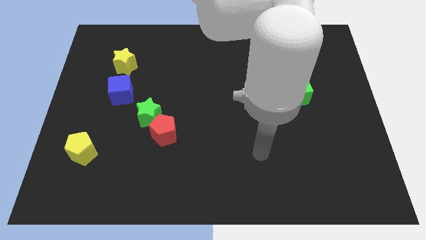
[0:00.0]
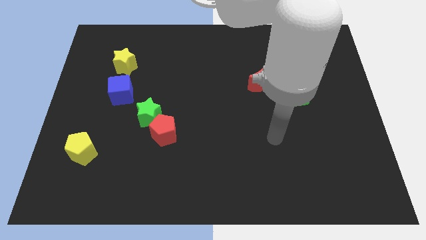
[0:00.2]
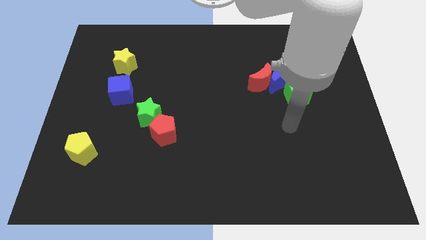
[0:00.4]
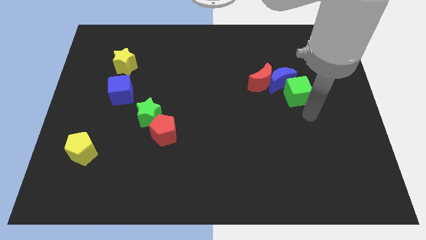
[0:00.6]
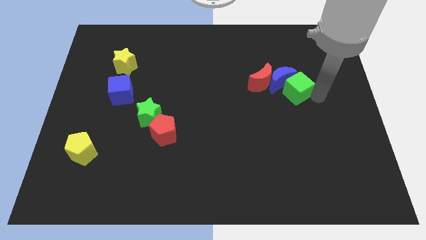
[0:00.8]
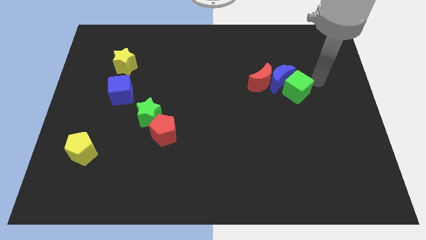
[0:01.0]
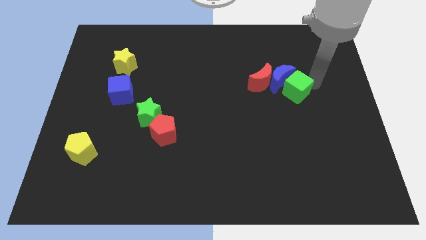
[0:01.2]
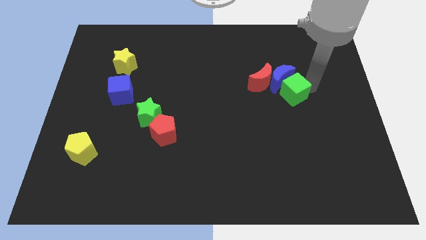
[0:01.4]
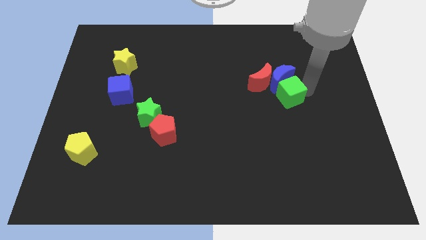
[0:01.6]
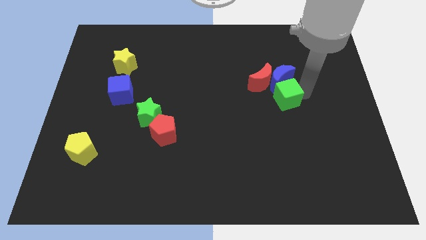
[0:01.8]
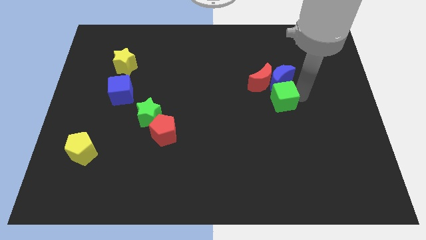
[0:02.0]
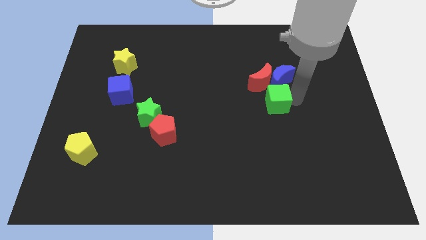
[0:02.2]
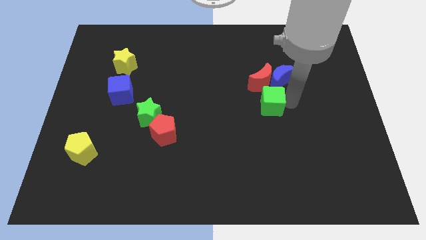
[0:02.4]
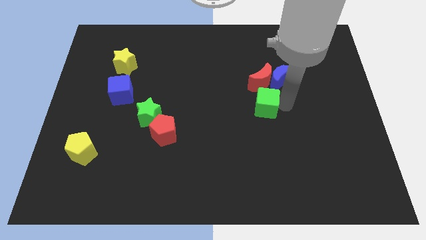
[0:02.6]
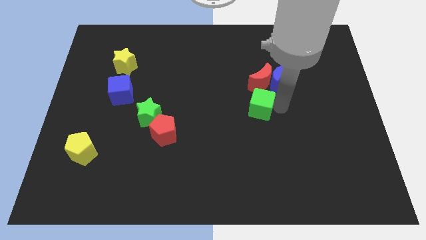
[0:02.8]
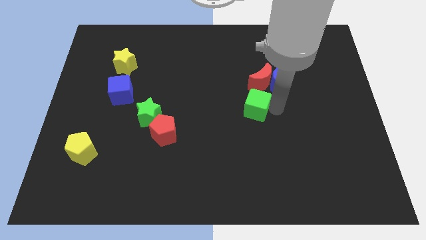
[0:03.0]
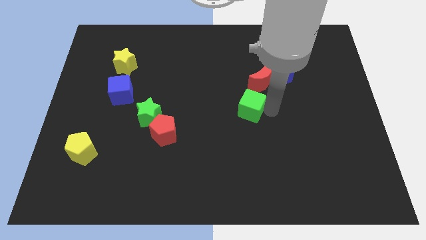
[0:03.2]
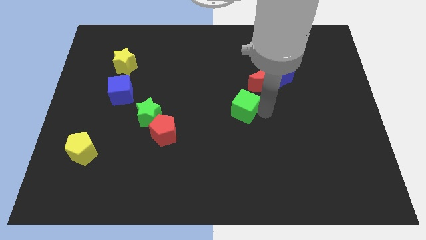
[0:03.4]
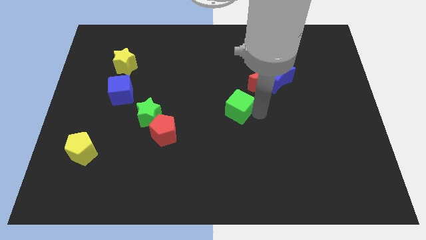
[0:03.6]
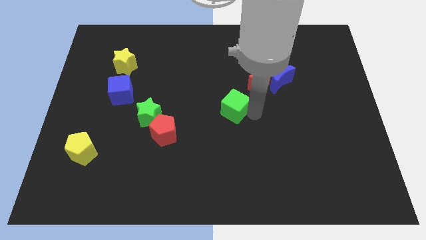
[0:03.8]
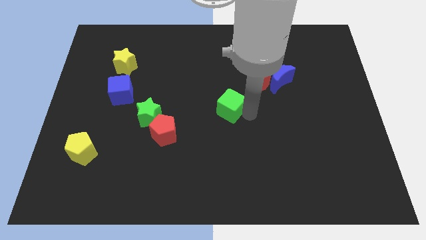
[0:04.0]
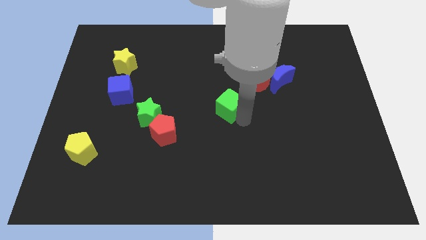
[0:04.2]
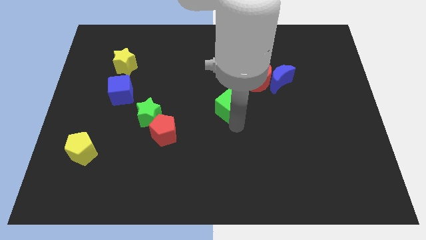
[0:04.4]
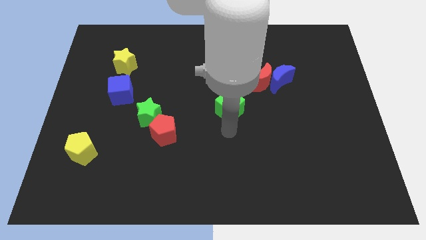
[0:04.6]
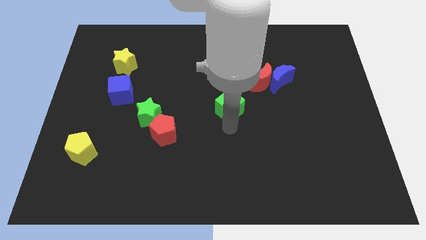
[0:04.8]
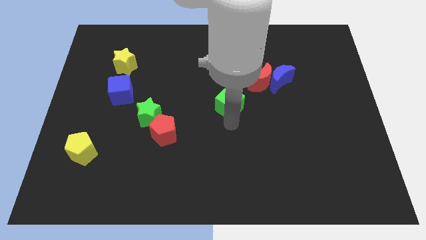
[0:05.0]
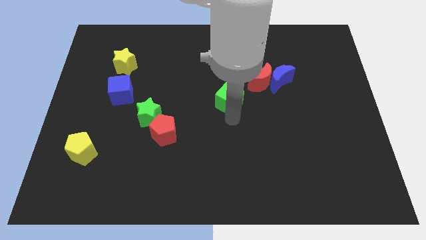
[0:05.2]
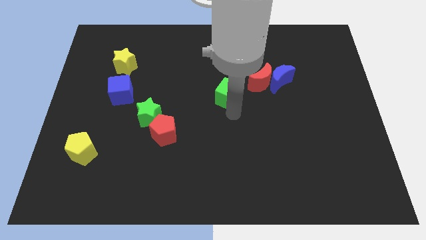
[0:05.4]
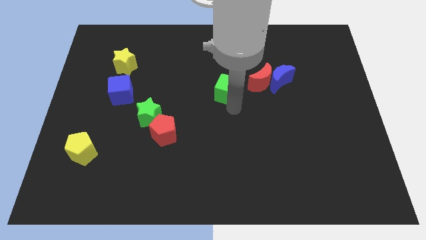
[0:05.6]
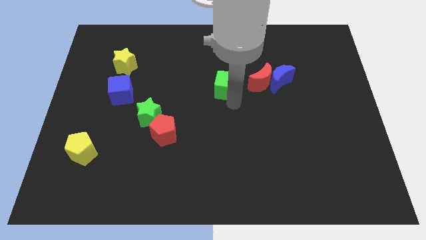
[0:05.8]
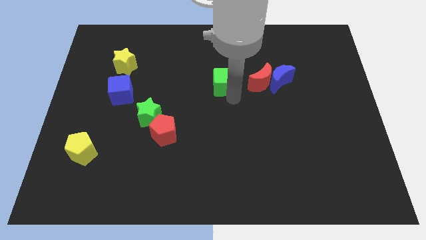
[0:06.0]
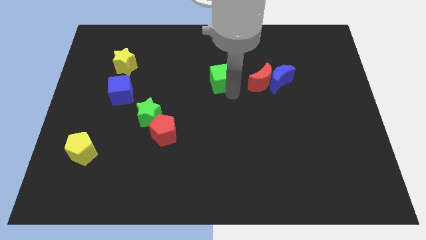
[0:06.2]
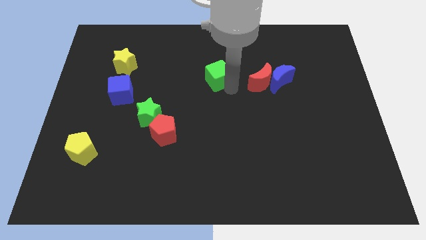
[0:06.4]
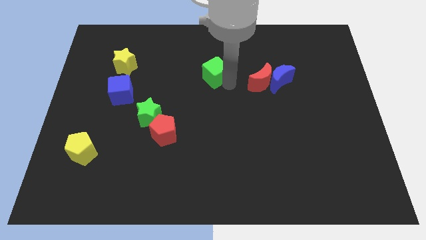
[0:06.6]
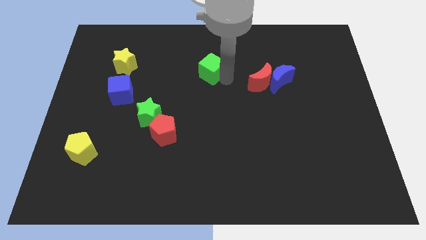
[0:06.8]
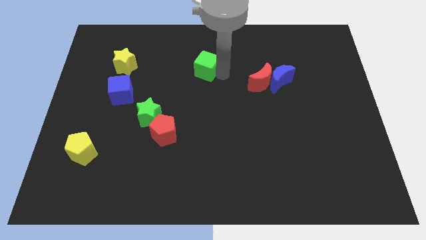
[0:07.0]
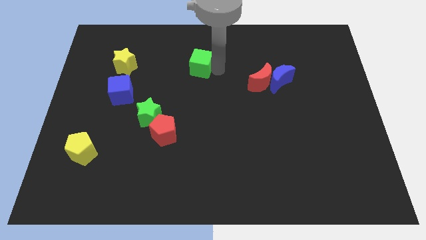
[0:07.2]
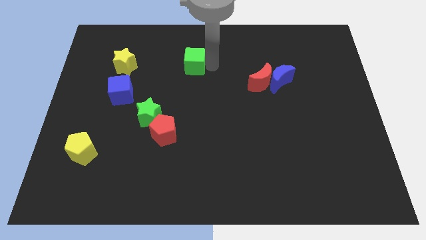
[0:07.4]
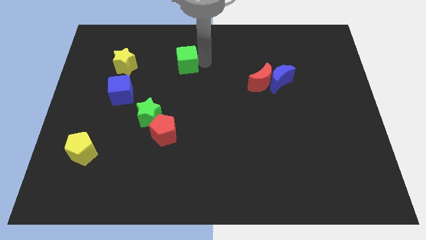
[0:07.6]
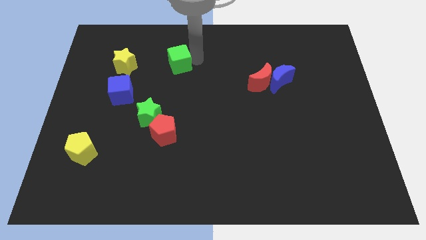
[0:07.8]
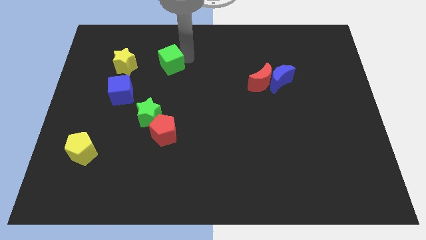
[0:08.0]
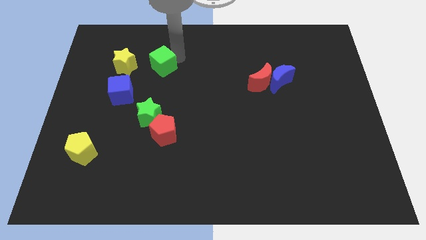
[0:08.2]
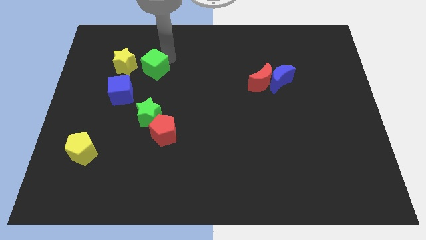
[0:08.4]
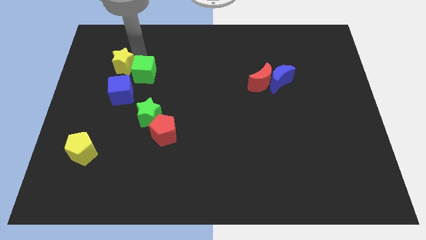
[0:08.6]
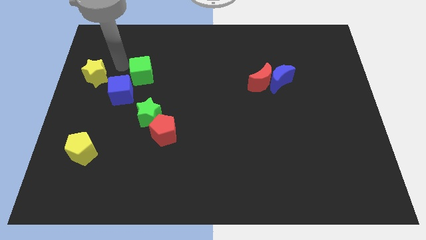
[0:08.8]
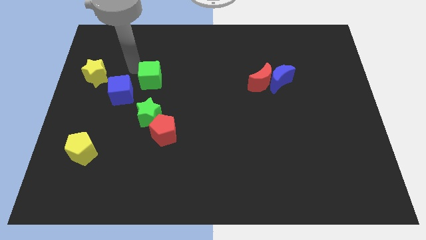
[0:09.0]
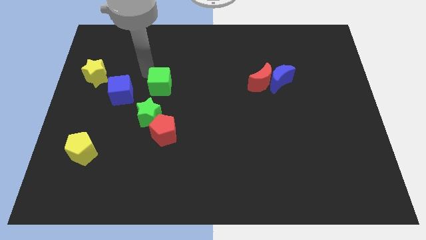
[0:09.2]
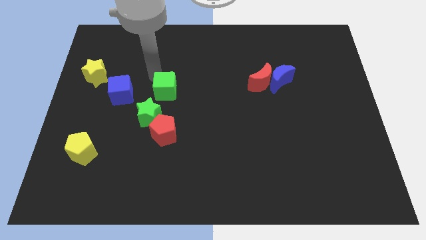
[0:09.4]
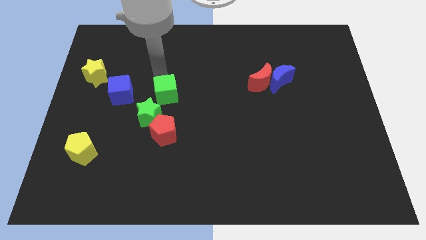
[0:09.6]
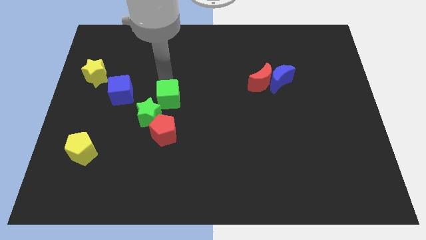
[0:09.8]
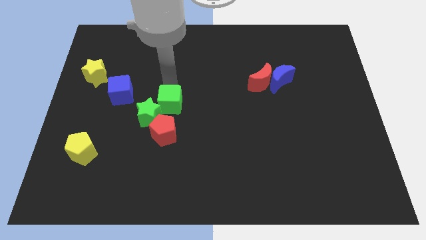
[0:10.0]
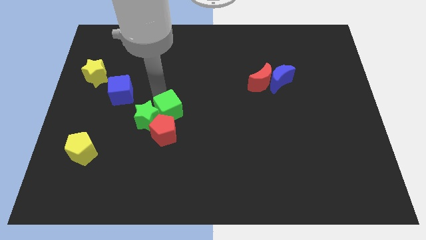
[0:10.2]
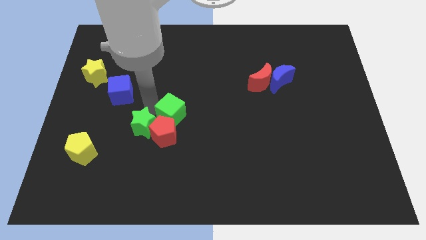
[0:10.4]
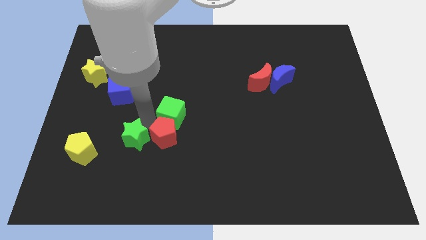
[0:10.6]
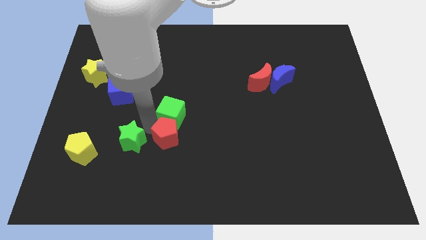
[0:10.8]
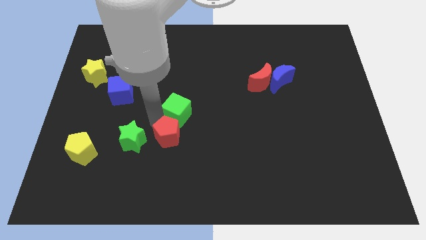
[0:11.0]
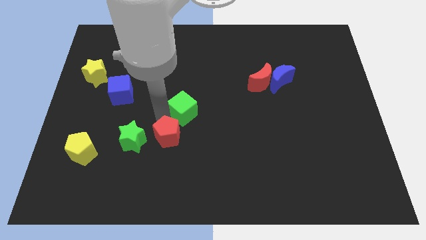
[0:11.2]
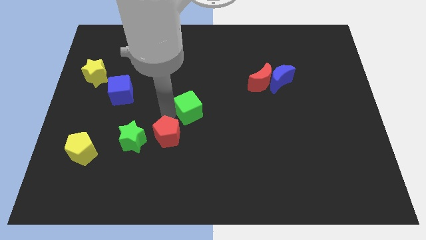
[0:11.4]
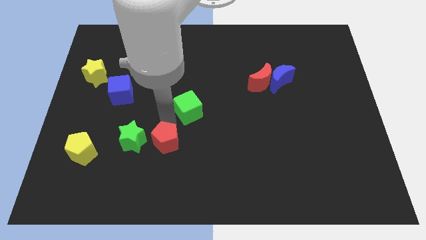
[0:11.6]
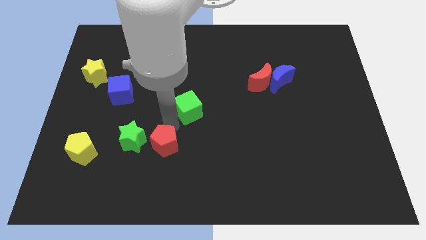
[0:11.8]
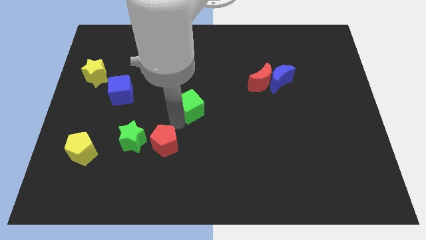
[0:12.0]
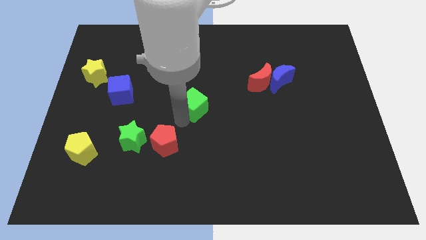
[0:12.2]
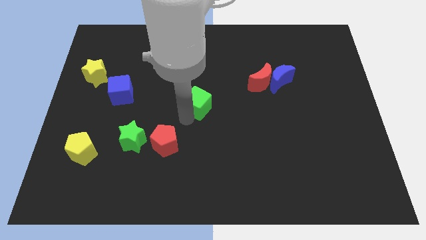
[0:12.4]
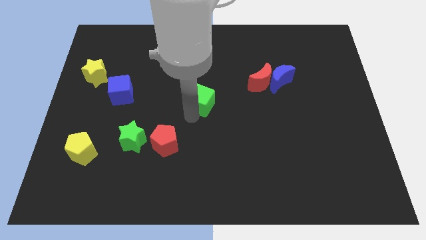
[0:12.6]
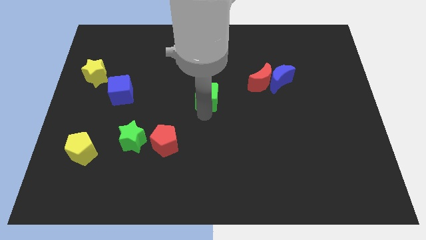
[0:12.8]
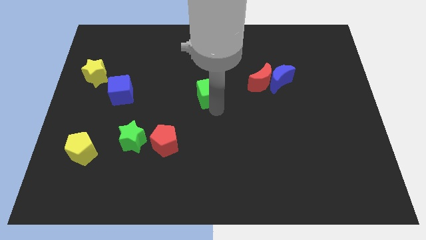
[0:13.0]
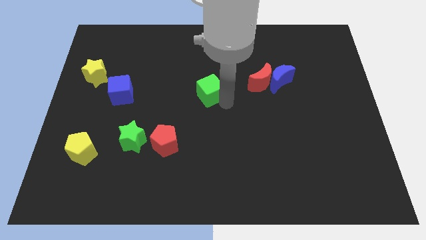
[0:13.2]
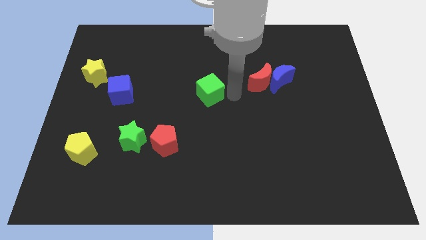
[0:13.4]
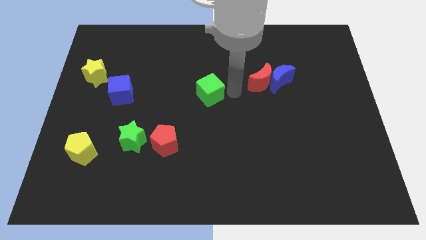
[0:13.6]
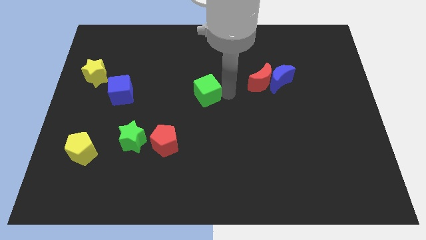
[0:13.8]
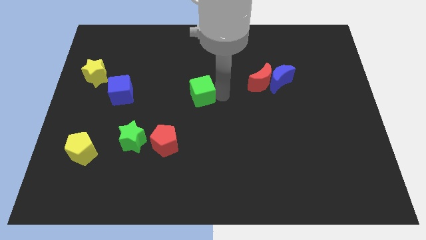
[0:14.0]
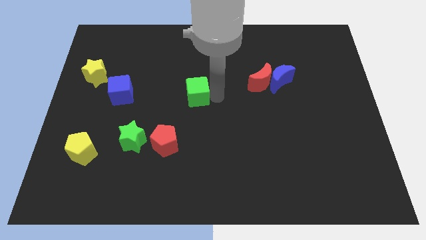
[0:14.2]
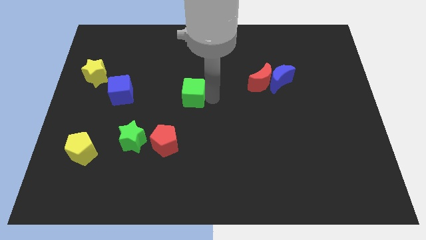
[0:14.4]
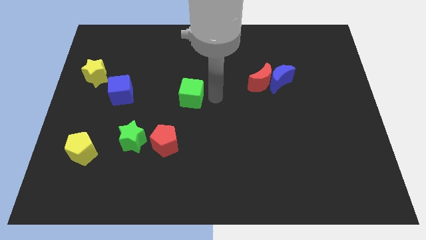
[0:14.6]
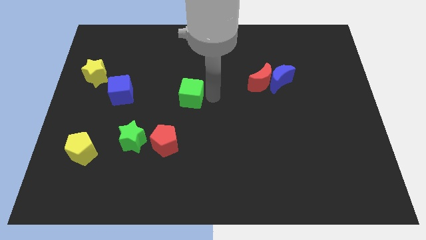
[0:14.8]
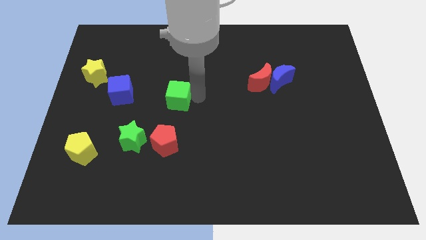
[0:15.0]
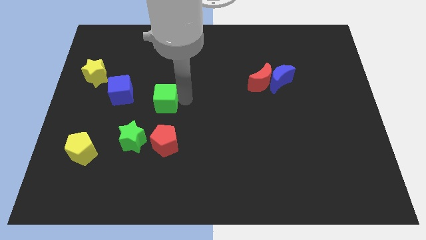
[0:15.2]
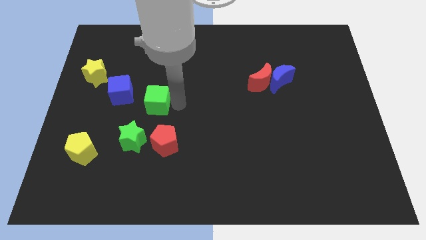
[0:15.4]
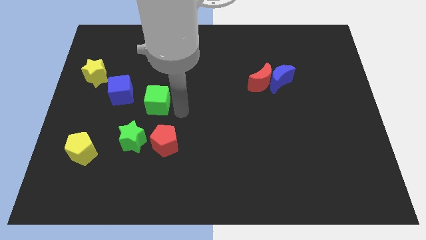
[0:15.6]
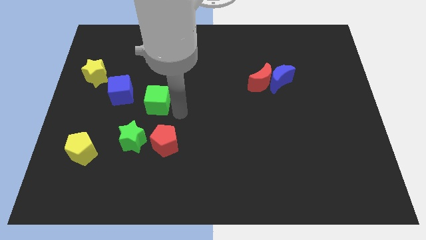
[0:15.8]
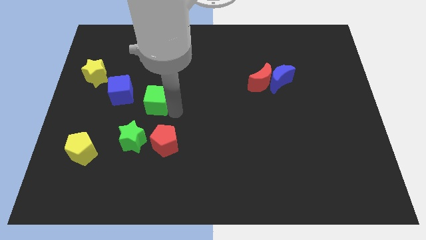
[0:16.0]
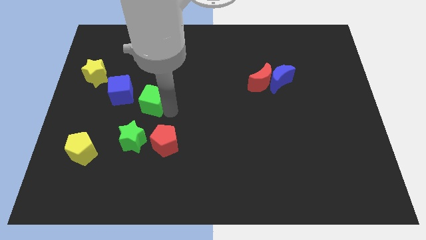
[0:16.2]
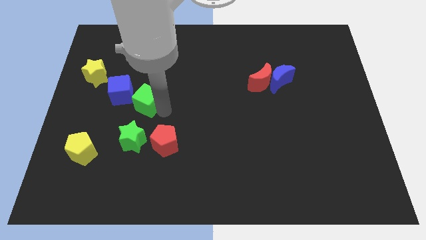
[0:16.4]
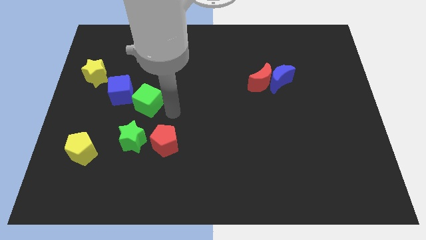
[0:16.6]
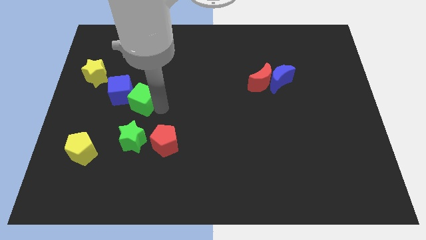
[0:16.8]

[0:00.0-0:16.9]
move the green cube towards the blue cube

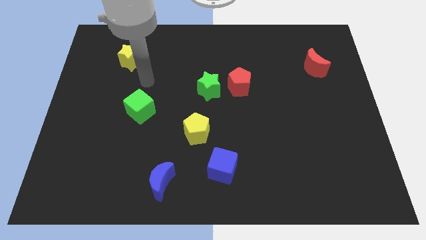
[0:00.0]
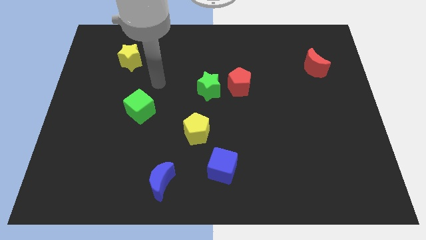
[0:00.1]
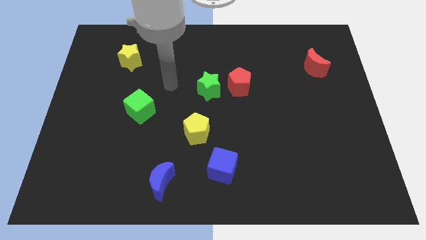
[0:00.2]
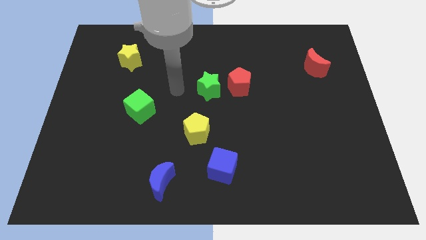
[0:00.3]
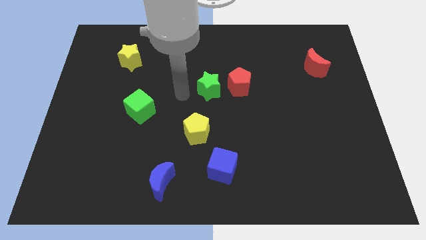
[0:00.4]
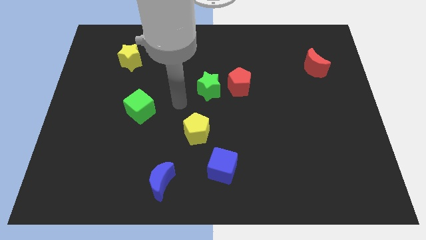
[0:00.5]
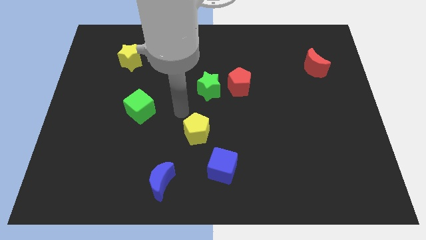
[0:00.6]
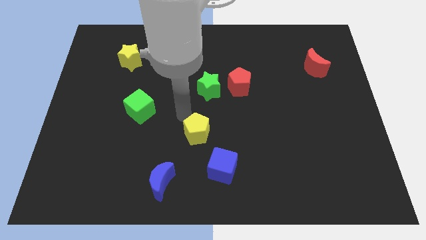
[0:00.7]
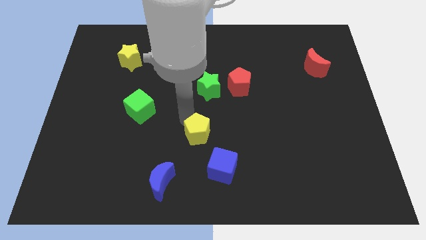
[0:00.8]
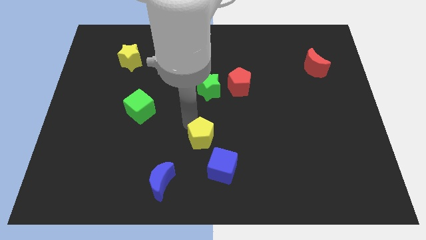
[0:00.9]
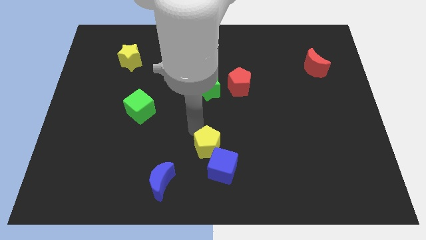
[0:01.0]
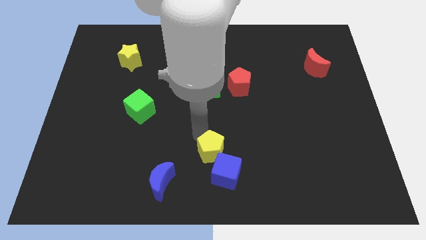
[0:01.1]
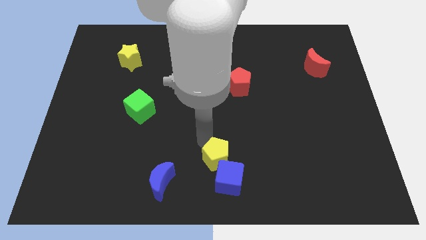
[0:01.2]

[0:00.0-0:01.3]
put the yellow pentagon to the blue cube
